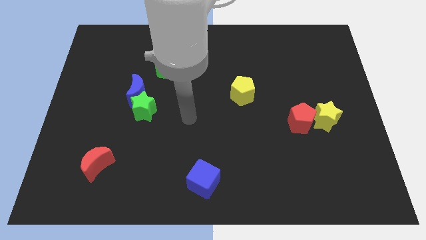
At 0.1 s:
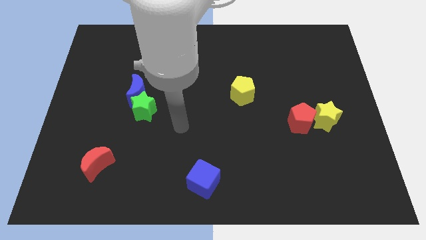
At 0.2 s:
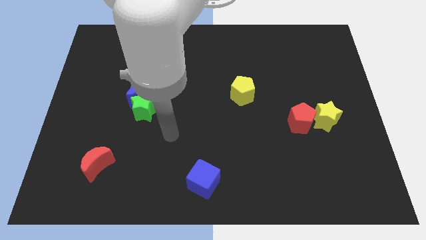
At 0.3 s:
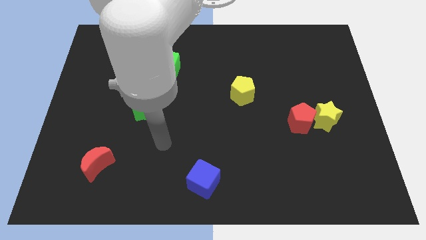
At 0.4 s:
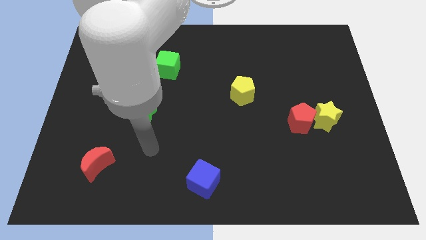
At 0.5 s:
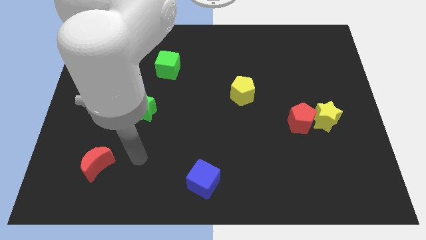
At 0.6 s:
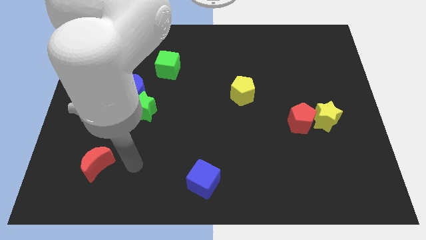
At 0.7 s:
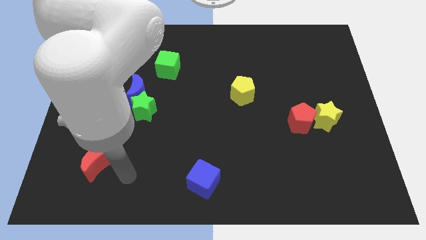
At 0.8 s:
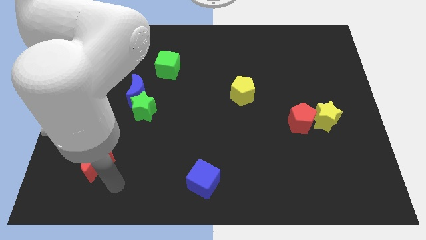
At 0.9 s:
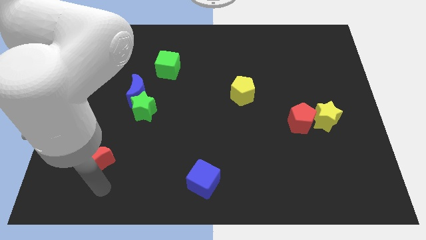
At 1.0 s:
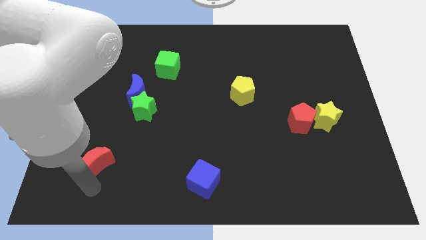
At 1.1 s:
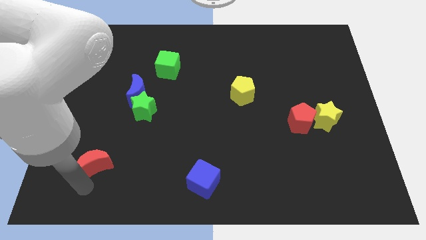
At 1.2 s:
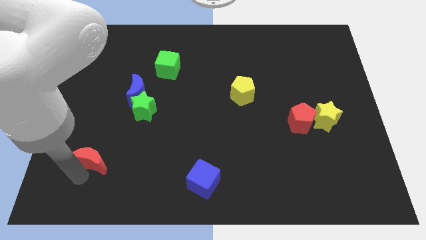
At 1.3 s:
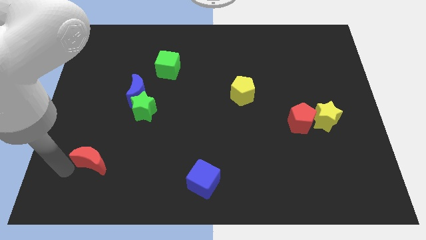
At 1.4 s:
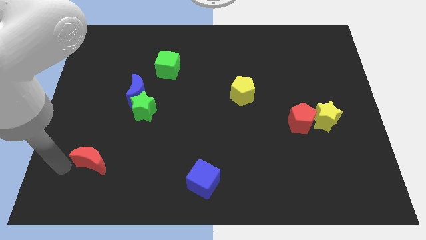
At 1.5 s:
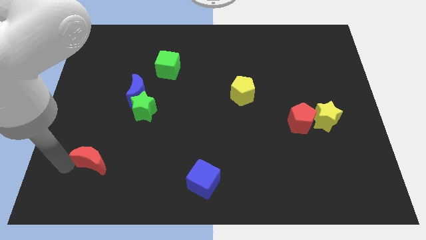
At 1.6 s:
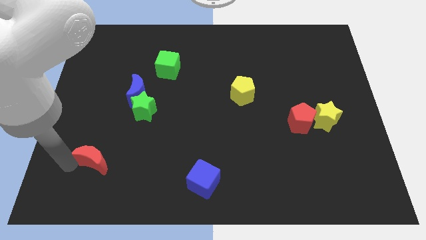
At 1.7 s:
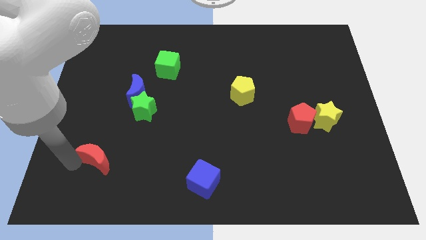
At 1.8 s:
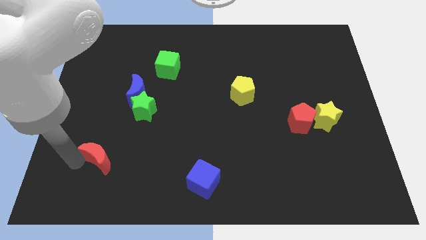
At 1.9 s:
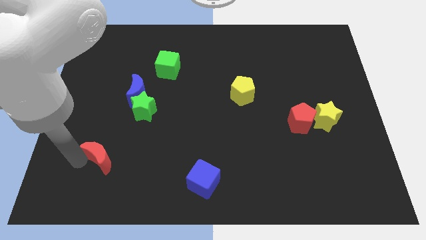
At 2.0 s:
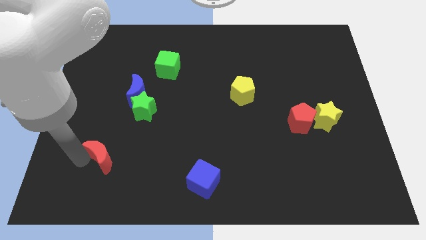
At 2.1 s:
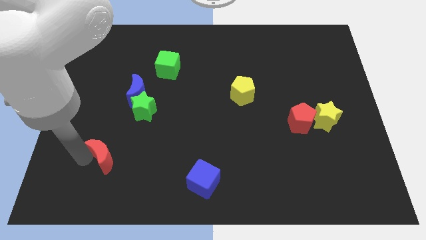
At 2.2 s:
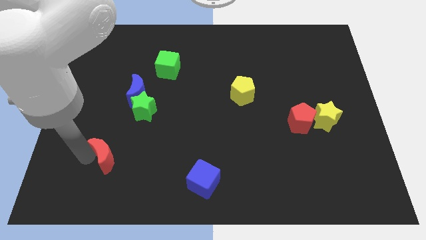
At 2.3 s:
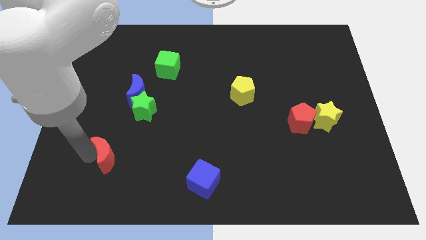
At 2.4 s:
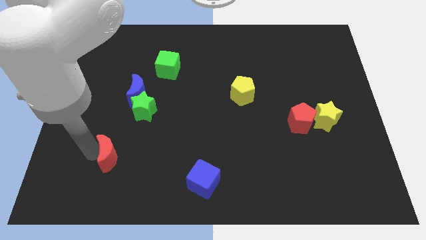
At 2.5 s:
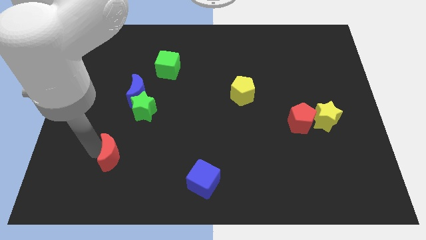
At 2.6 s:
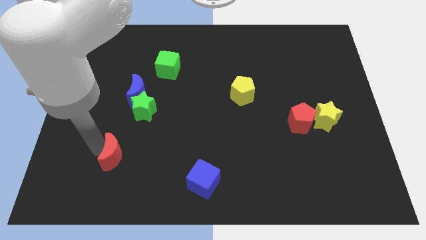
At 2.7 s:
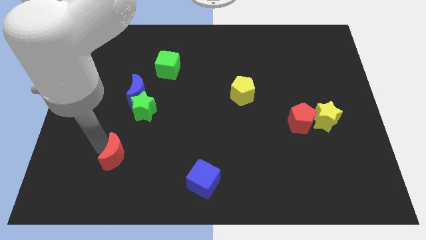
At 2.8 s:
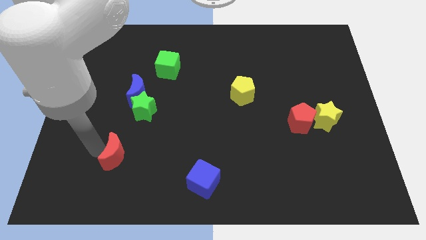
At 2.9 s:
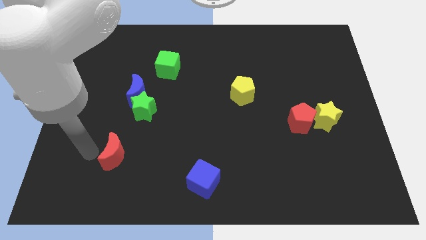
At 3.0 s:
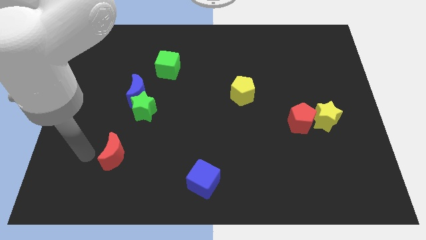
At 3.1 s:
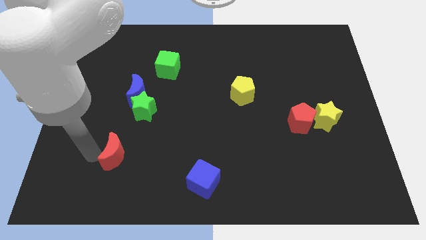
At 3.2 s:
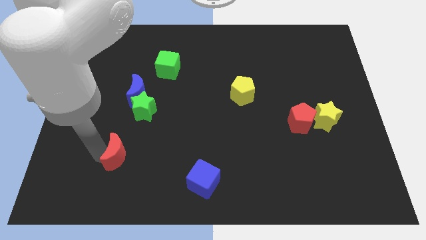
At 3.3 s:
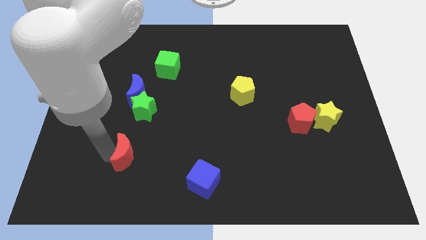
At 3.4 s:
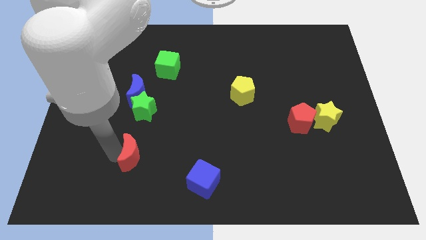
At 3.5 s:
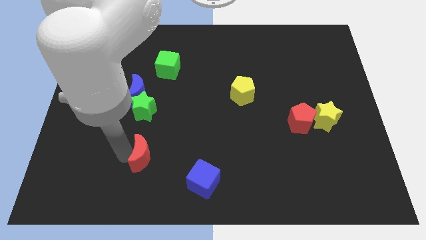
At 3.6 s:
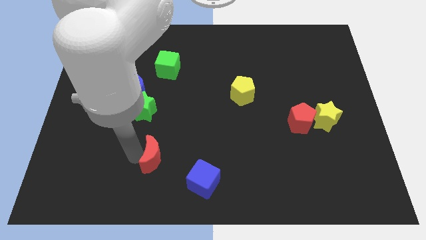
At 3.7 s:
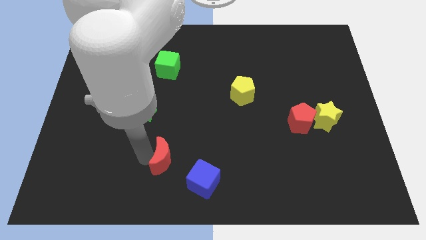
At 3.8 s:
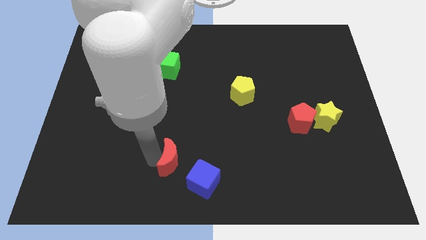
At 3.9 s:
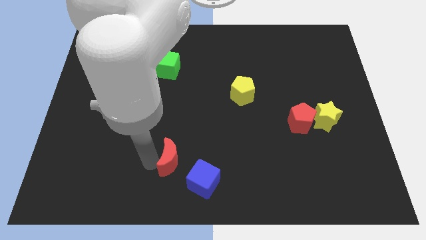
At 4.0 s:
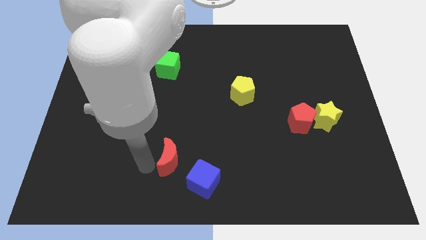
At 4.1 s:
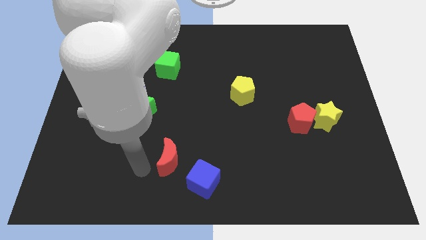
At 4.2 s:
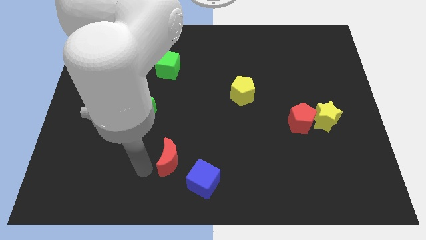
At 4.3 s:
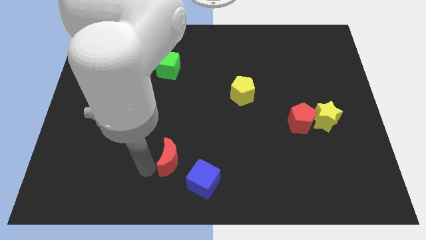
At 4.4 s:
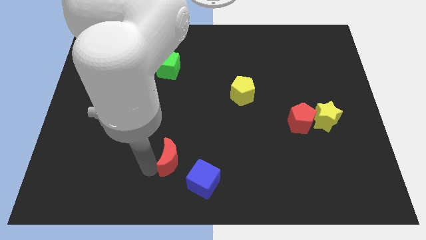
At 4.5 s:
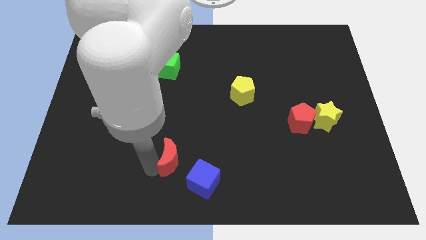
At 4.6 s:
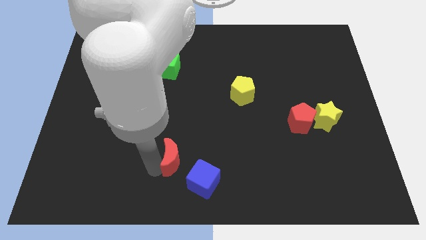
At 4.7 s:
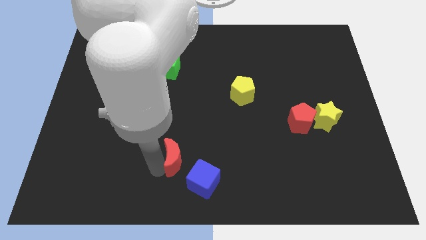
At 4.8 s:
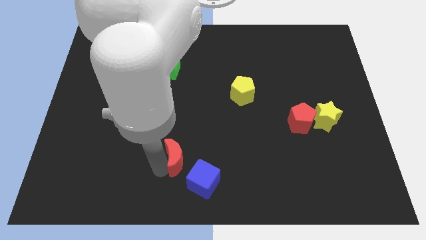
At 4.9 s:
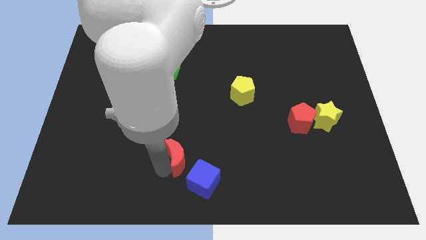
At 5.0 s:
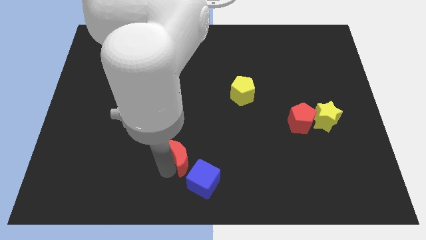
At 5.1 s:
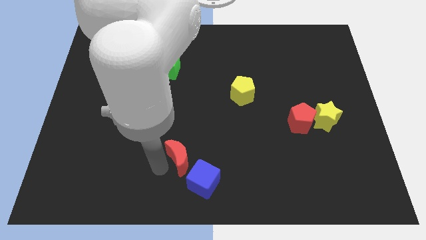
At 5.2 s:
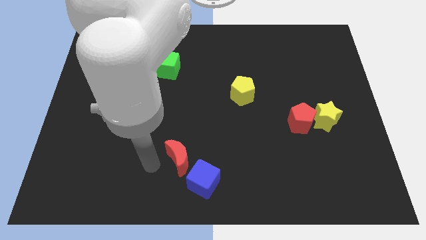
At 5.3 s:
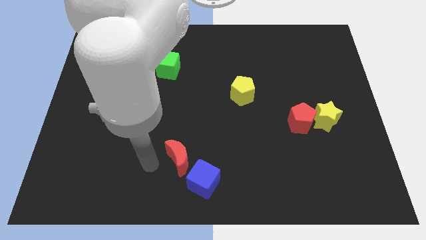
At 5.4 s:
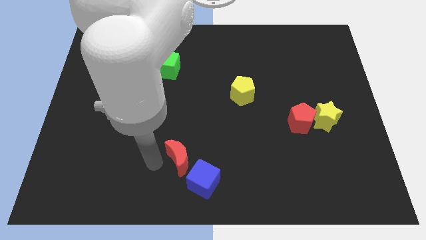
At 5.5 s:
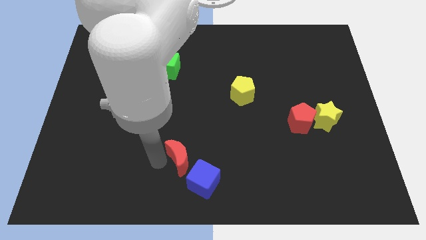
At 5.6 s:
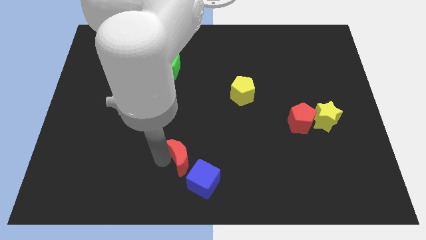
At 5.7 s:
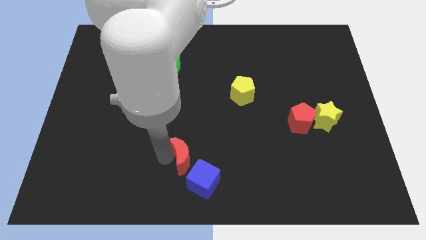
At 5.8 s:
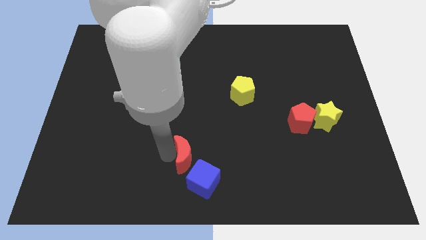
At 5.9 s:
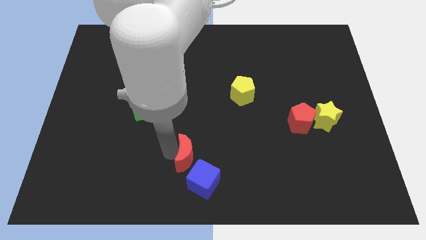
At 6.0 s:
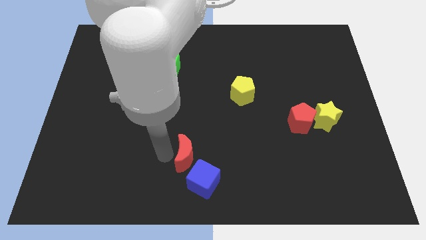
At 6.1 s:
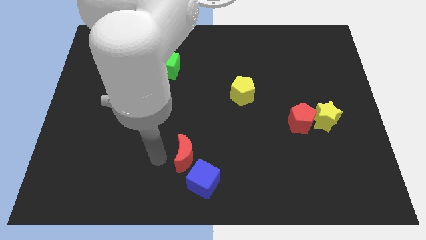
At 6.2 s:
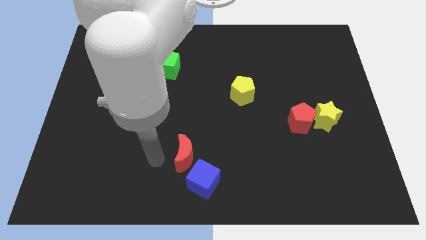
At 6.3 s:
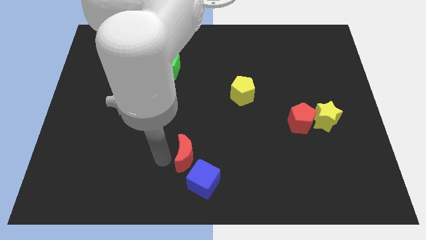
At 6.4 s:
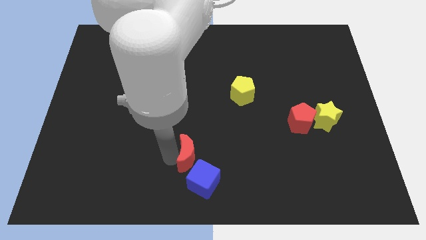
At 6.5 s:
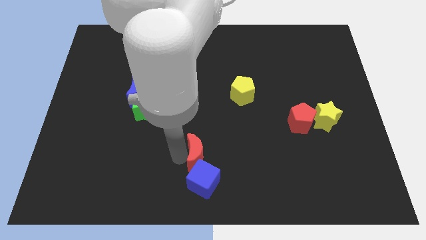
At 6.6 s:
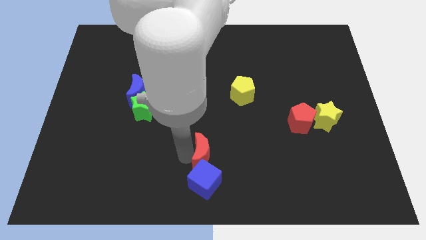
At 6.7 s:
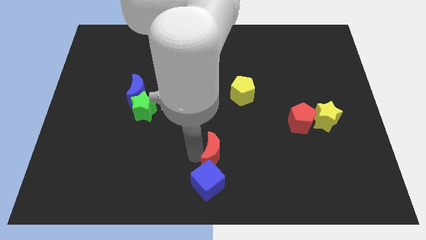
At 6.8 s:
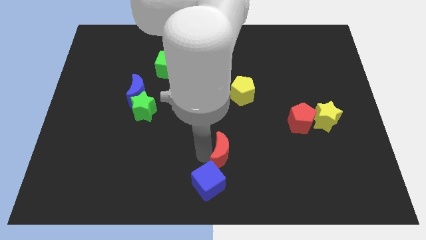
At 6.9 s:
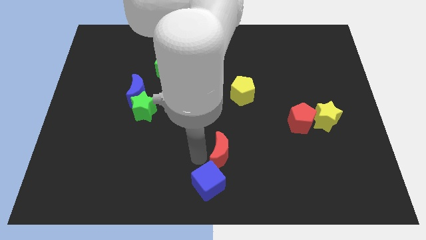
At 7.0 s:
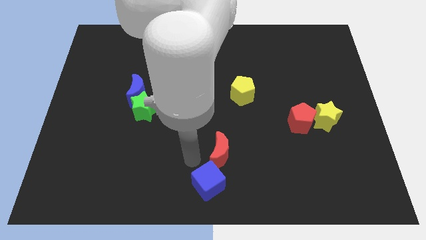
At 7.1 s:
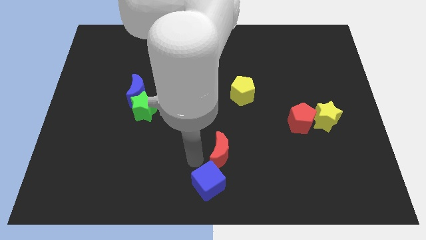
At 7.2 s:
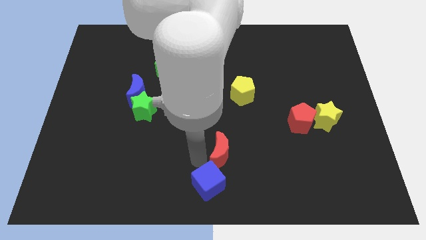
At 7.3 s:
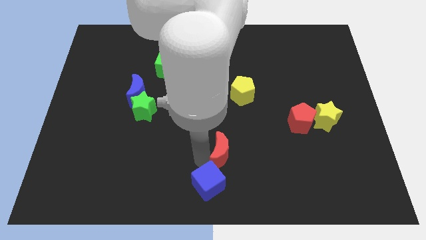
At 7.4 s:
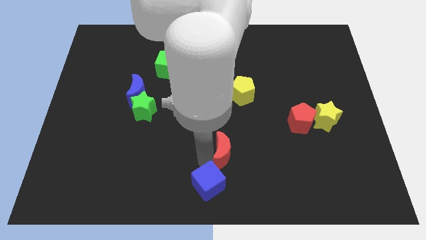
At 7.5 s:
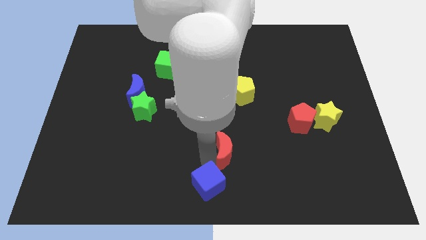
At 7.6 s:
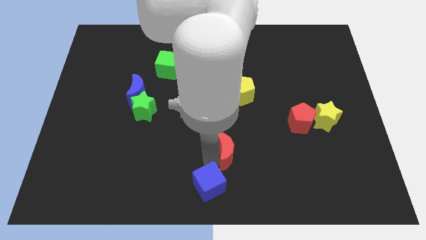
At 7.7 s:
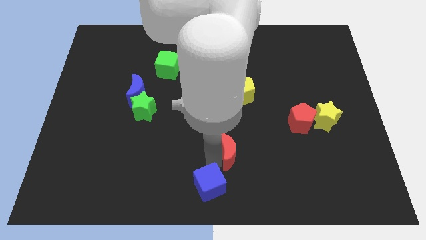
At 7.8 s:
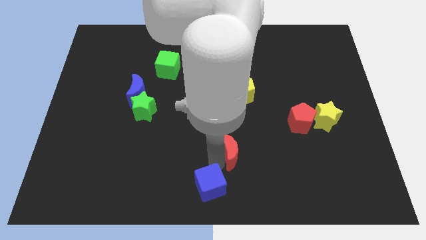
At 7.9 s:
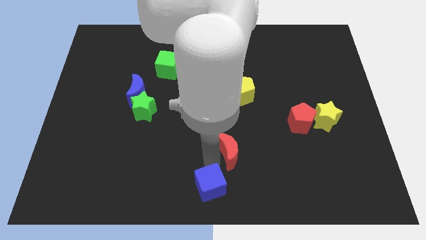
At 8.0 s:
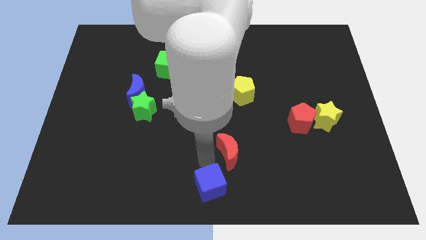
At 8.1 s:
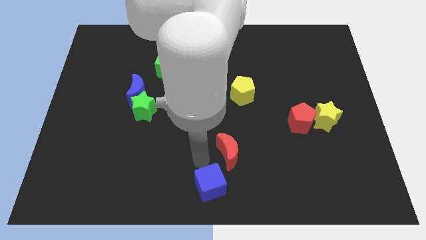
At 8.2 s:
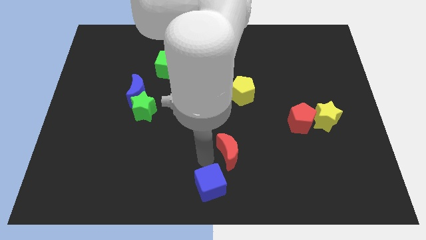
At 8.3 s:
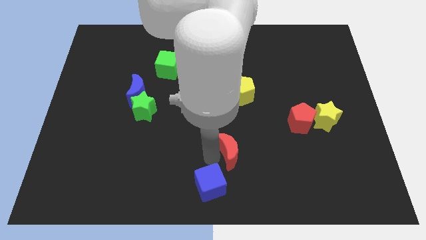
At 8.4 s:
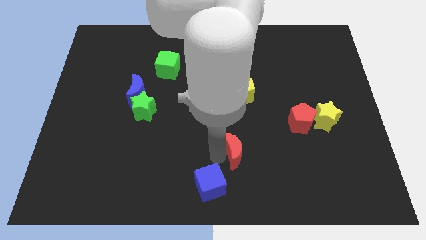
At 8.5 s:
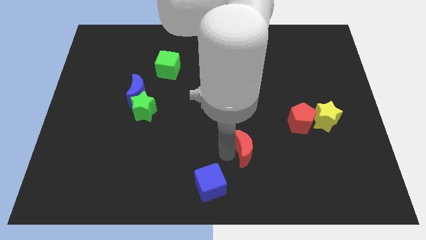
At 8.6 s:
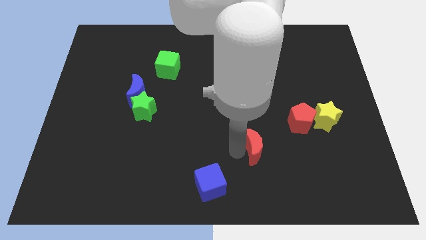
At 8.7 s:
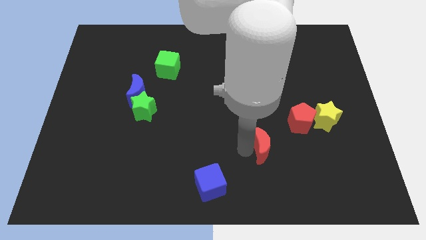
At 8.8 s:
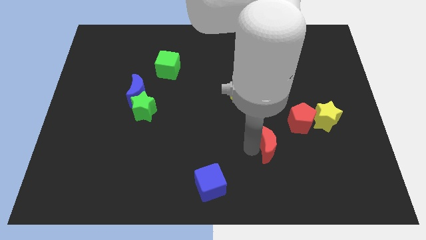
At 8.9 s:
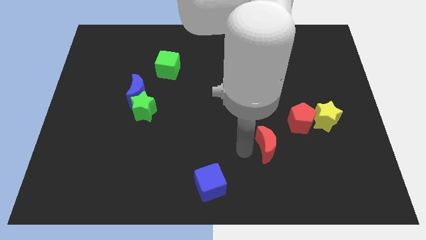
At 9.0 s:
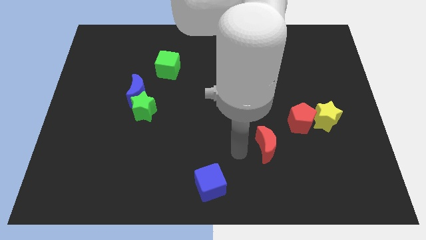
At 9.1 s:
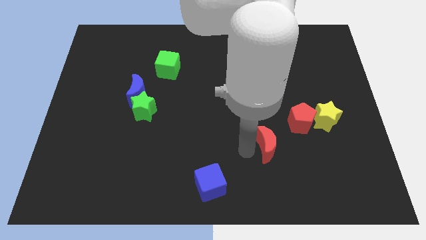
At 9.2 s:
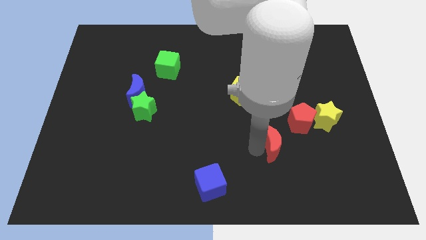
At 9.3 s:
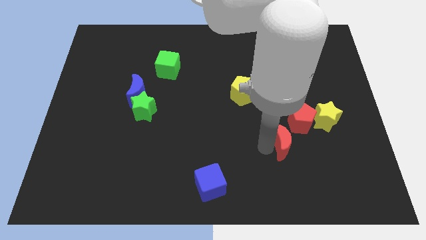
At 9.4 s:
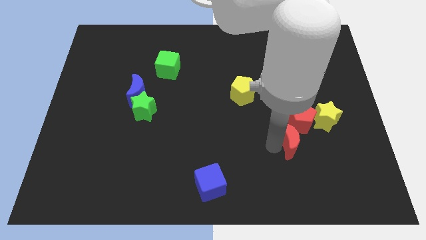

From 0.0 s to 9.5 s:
push the red moon diagonally down and to the left of the yellow star
